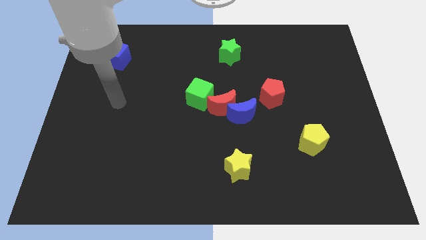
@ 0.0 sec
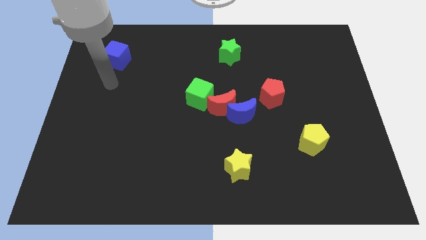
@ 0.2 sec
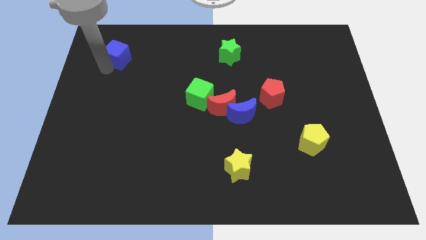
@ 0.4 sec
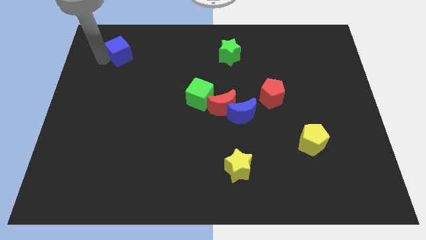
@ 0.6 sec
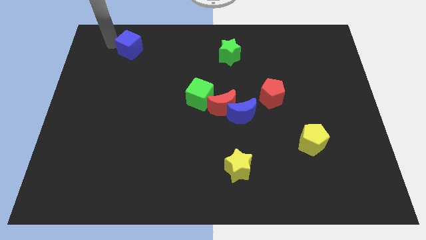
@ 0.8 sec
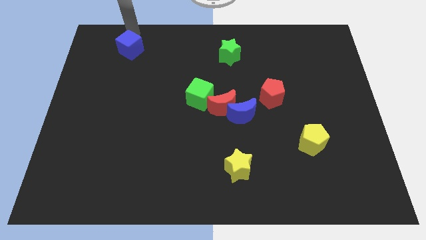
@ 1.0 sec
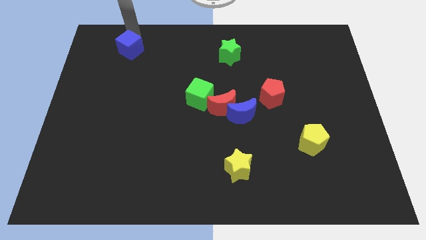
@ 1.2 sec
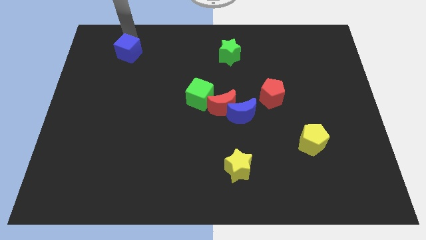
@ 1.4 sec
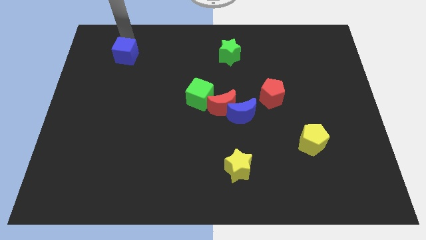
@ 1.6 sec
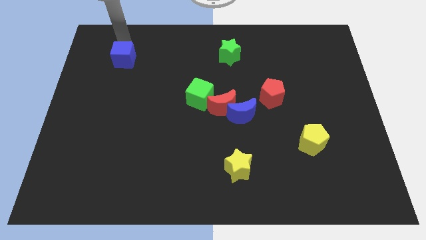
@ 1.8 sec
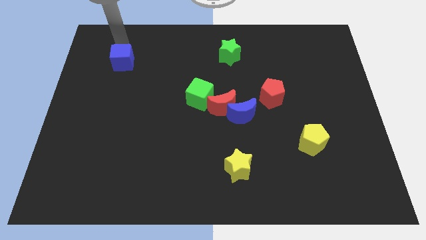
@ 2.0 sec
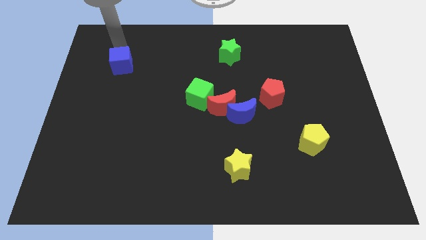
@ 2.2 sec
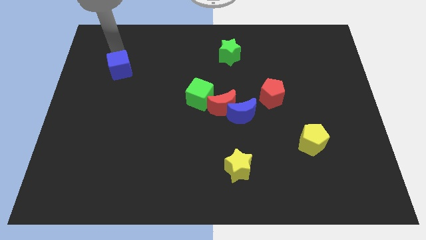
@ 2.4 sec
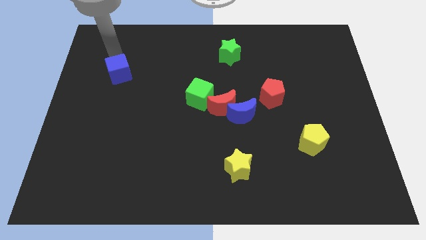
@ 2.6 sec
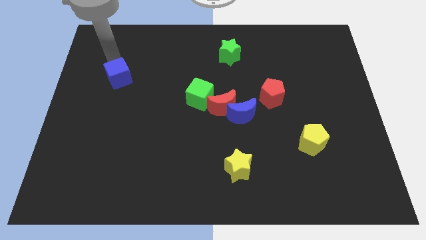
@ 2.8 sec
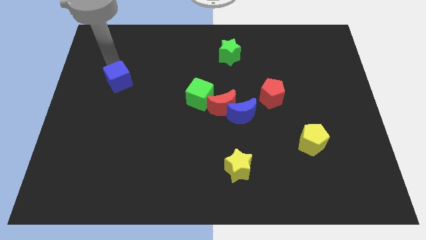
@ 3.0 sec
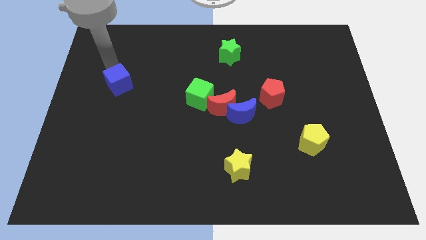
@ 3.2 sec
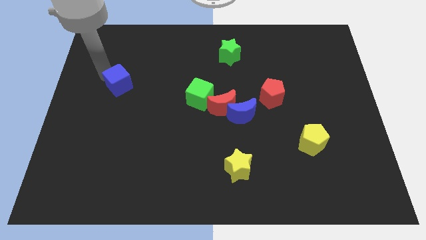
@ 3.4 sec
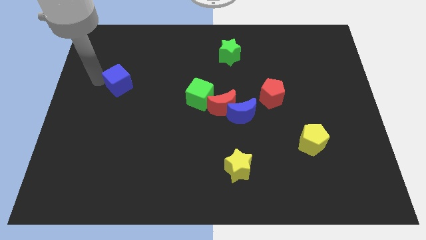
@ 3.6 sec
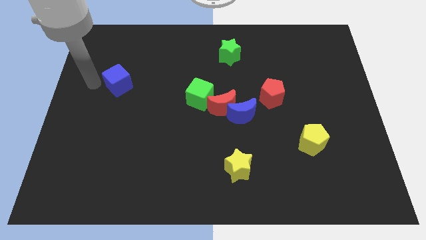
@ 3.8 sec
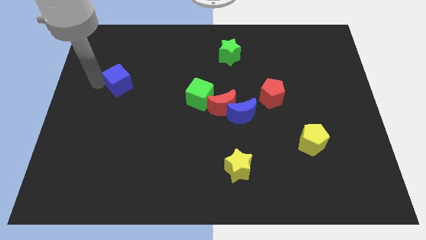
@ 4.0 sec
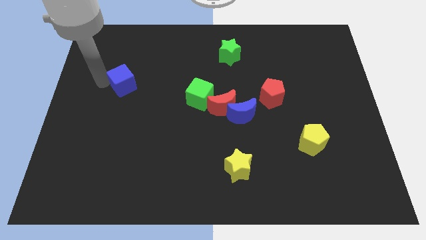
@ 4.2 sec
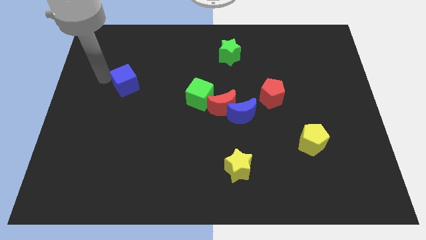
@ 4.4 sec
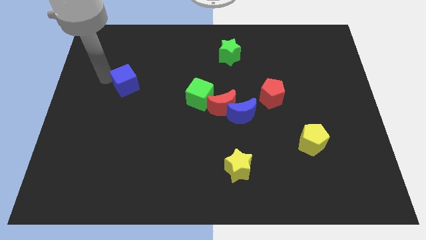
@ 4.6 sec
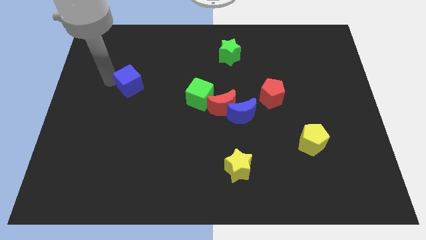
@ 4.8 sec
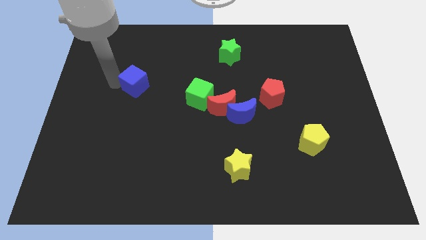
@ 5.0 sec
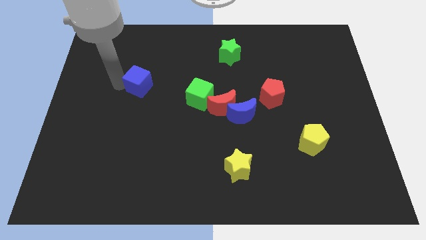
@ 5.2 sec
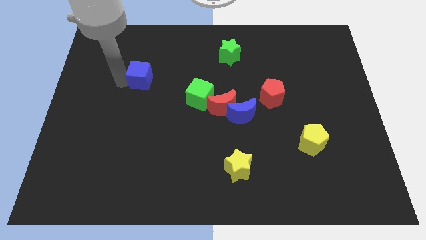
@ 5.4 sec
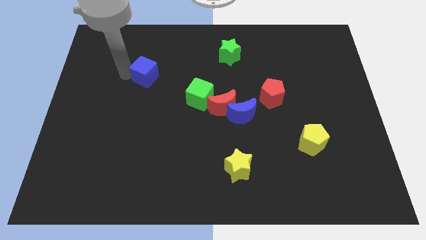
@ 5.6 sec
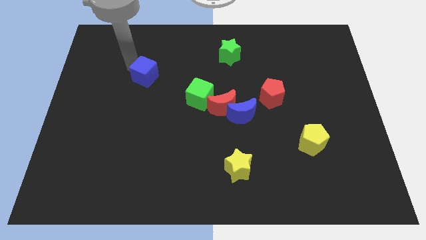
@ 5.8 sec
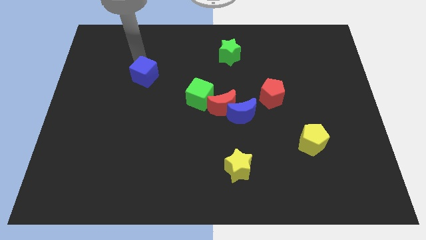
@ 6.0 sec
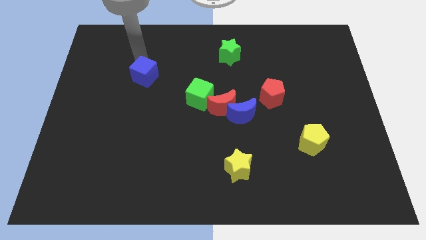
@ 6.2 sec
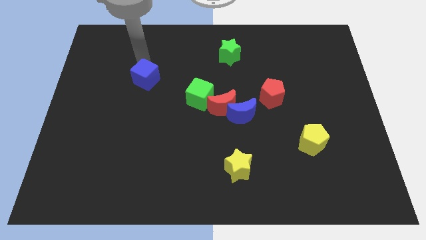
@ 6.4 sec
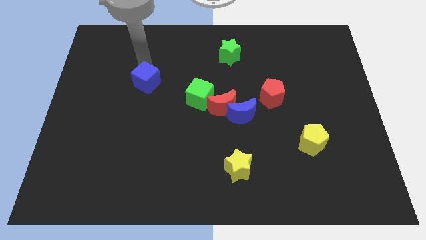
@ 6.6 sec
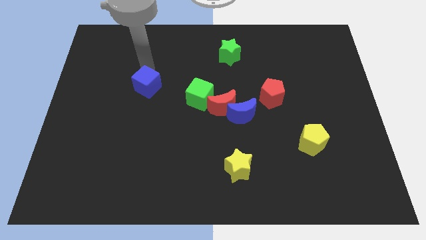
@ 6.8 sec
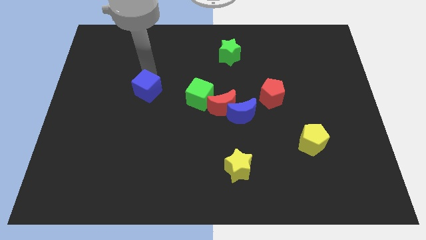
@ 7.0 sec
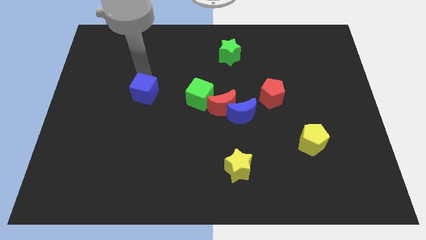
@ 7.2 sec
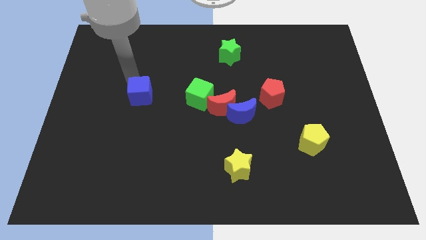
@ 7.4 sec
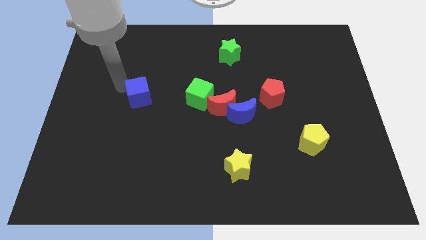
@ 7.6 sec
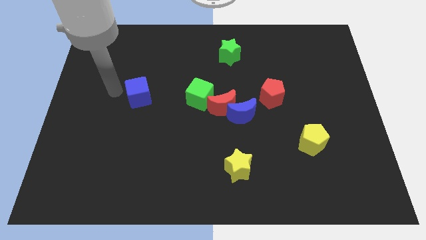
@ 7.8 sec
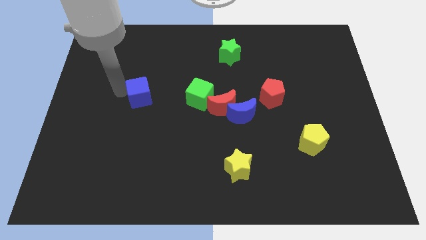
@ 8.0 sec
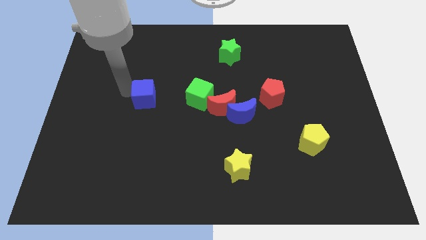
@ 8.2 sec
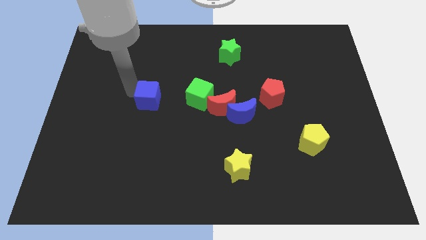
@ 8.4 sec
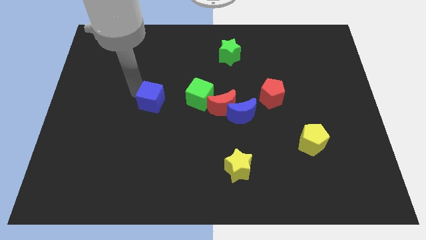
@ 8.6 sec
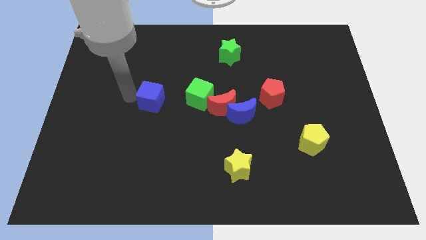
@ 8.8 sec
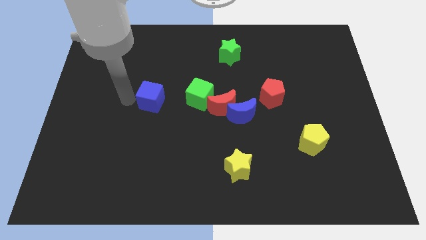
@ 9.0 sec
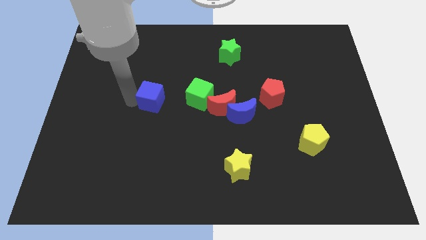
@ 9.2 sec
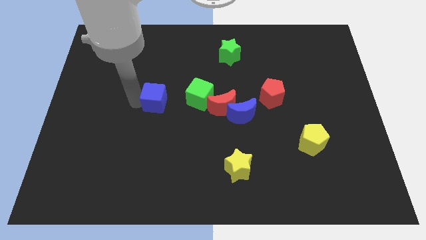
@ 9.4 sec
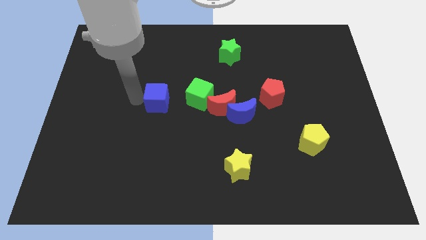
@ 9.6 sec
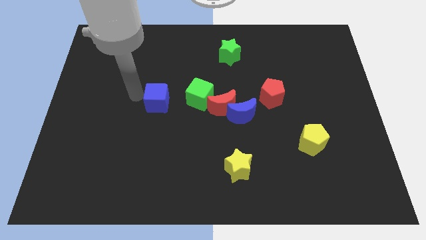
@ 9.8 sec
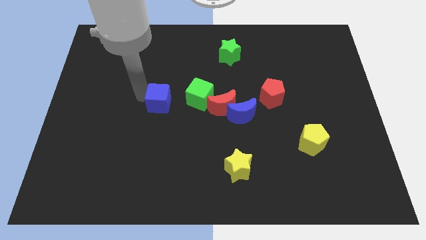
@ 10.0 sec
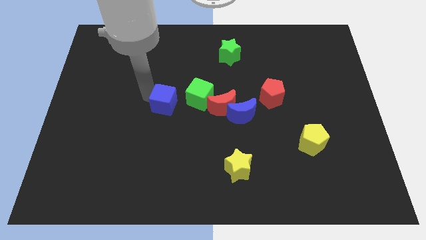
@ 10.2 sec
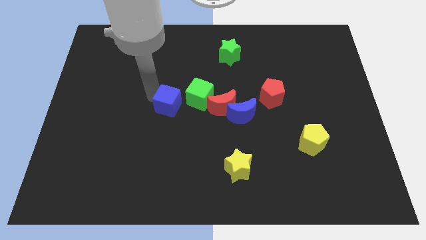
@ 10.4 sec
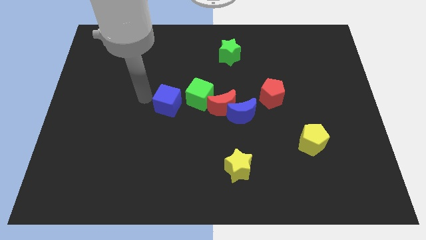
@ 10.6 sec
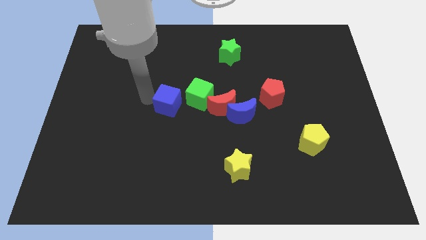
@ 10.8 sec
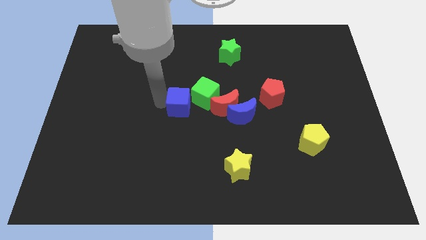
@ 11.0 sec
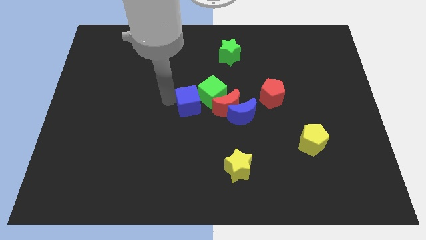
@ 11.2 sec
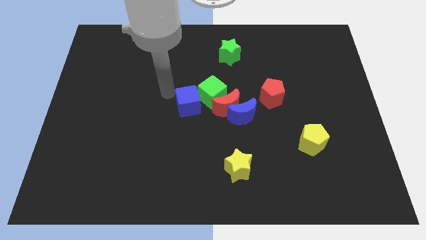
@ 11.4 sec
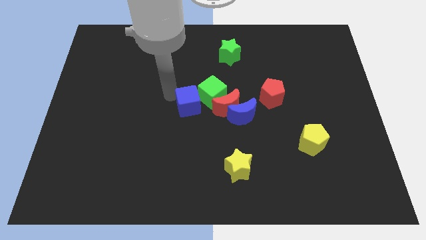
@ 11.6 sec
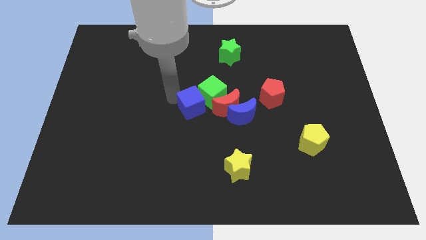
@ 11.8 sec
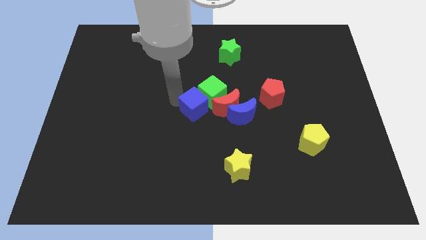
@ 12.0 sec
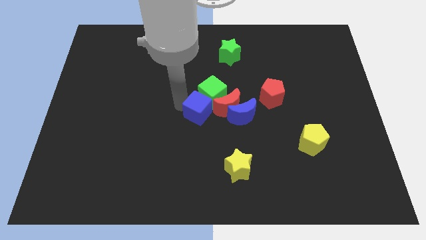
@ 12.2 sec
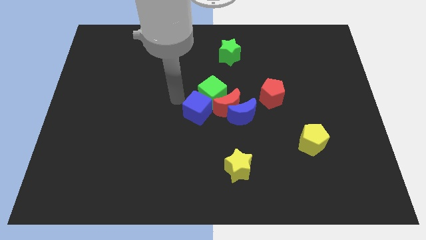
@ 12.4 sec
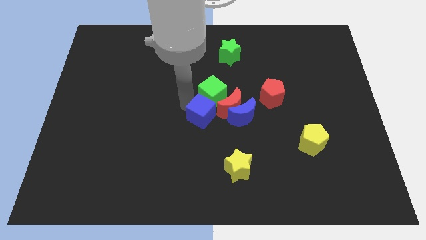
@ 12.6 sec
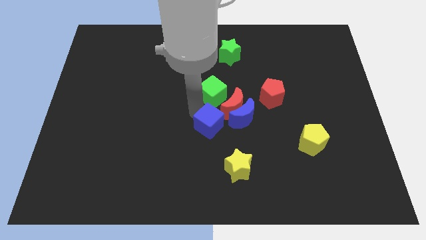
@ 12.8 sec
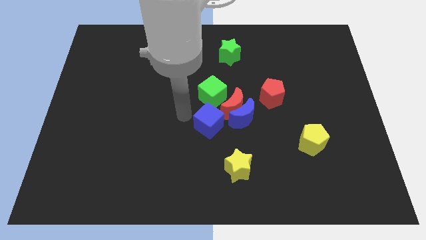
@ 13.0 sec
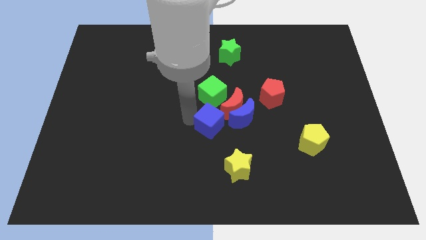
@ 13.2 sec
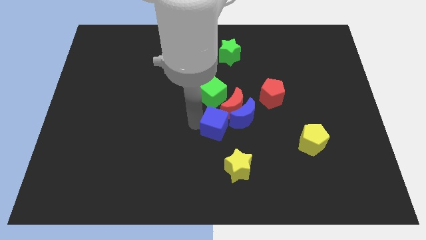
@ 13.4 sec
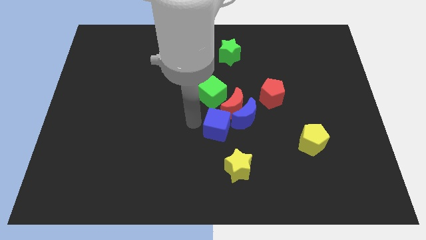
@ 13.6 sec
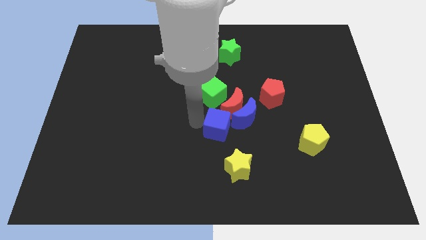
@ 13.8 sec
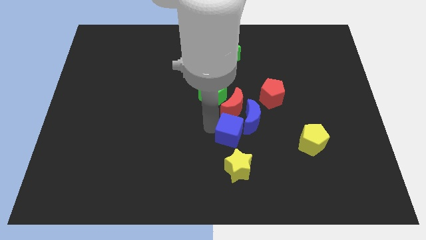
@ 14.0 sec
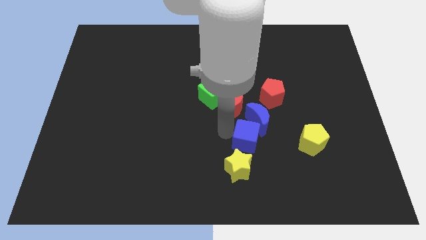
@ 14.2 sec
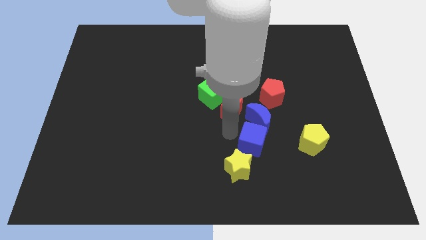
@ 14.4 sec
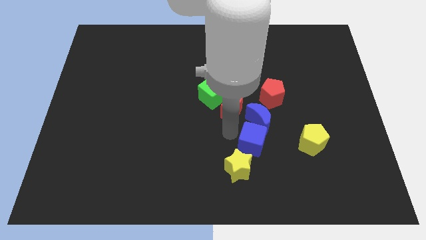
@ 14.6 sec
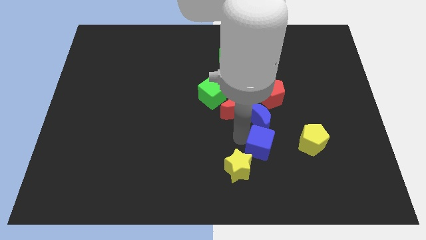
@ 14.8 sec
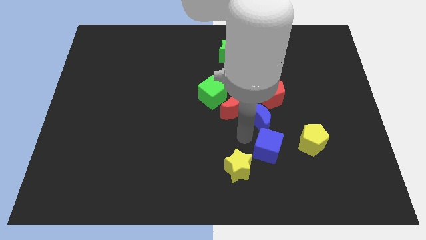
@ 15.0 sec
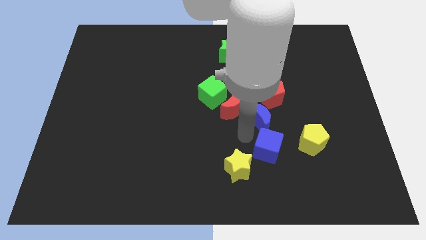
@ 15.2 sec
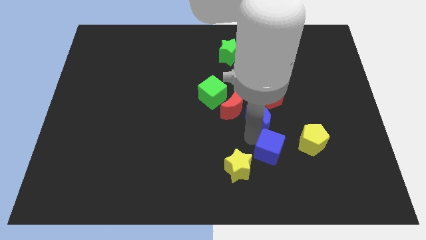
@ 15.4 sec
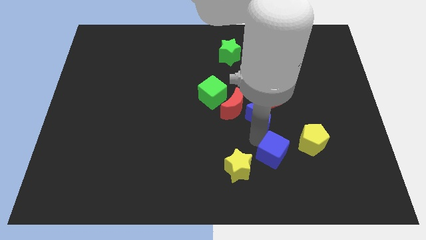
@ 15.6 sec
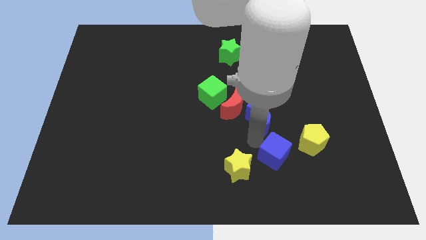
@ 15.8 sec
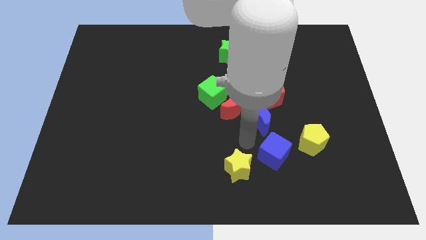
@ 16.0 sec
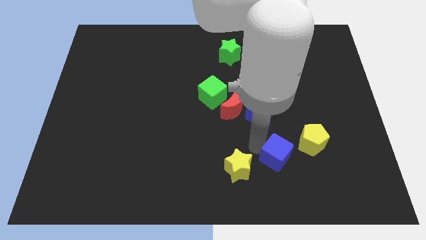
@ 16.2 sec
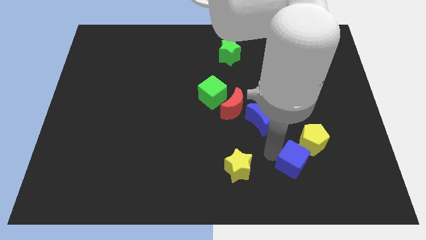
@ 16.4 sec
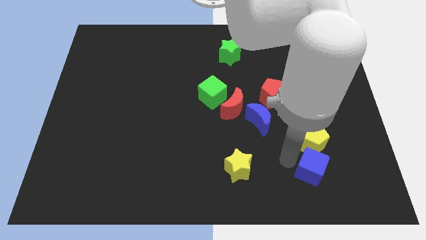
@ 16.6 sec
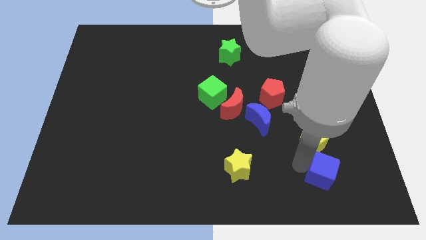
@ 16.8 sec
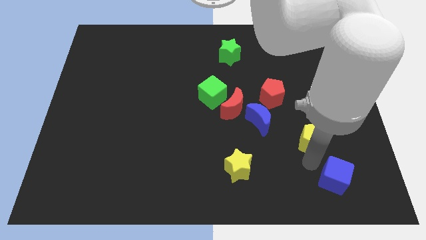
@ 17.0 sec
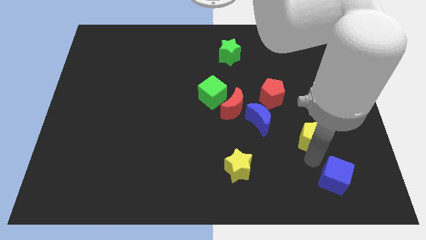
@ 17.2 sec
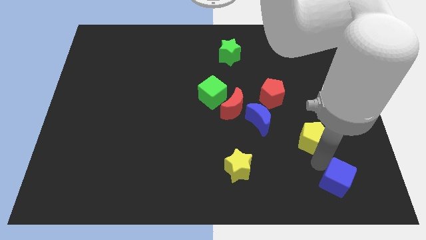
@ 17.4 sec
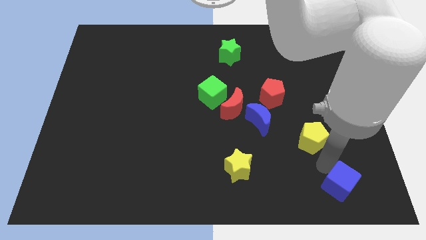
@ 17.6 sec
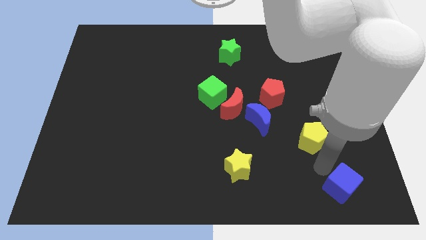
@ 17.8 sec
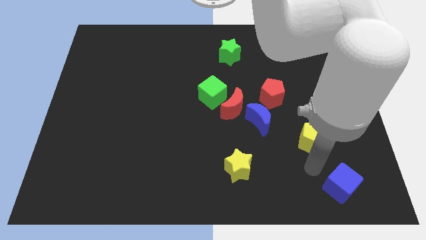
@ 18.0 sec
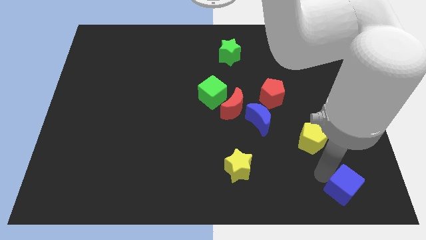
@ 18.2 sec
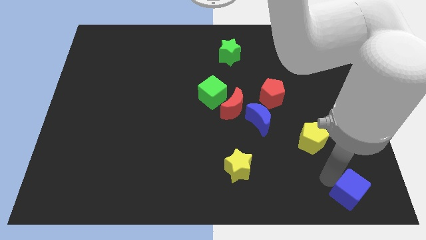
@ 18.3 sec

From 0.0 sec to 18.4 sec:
move the blue cube to the bottom right of the board
